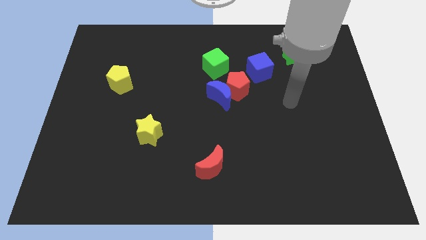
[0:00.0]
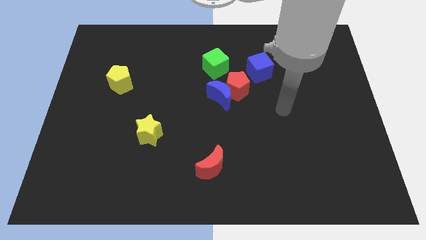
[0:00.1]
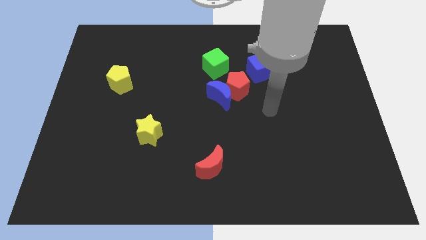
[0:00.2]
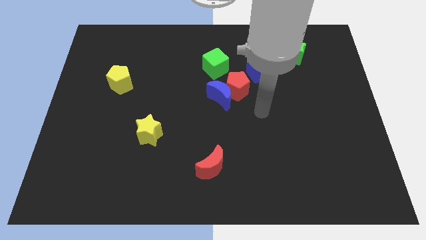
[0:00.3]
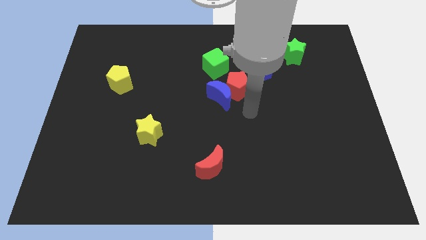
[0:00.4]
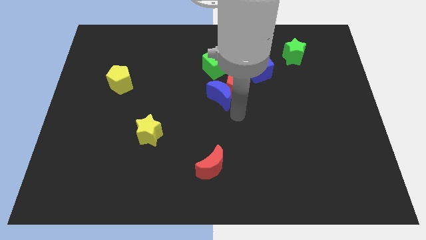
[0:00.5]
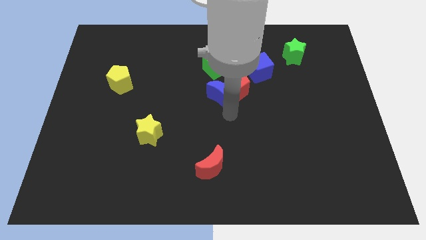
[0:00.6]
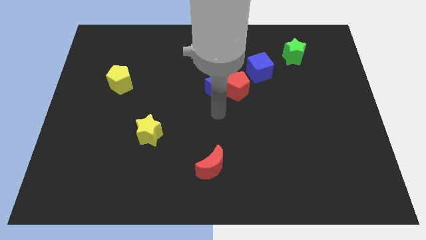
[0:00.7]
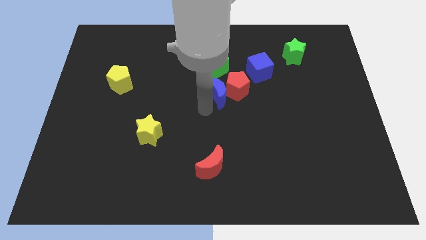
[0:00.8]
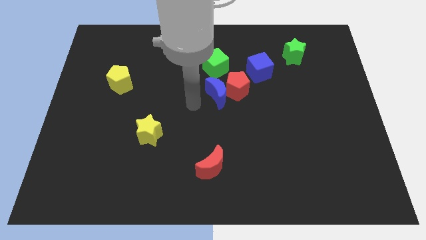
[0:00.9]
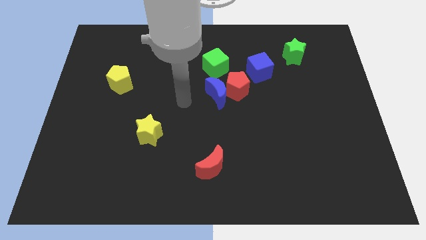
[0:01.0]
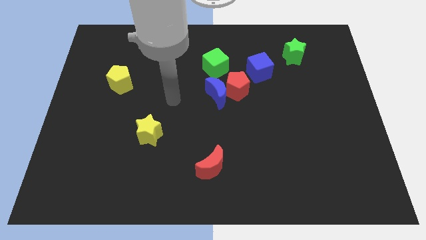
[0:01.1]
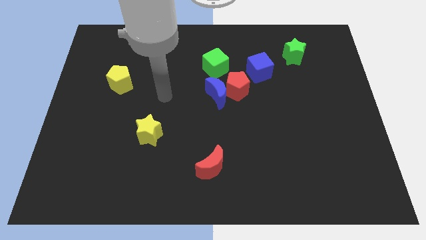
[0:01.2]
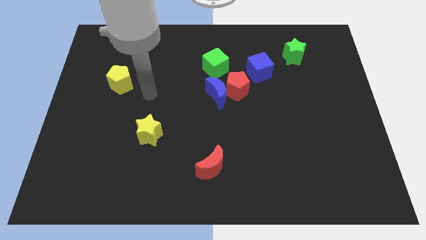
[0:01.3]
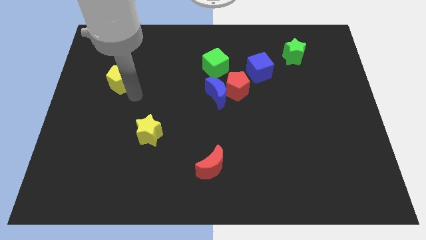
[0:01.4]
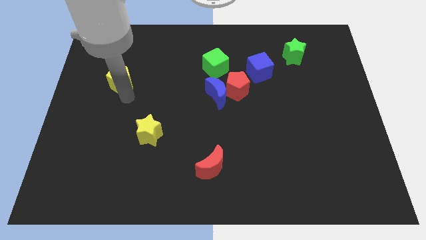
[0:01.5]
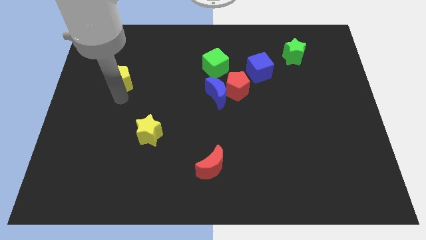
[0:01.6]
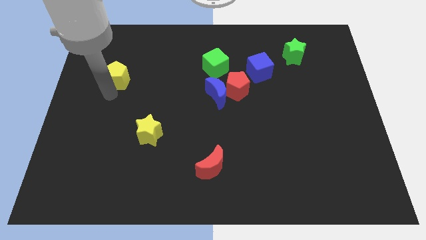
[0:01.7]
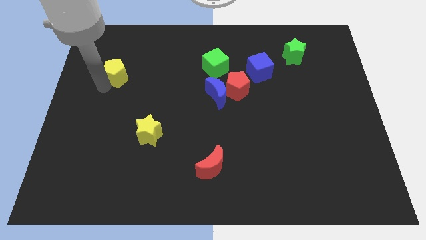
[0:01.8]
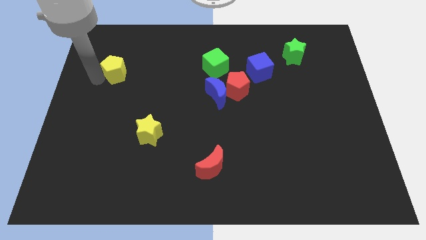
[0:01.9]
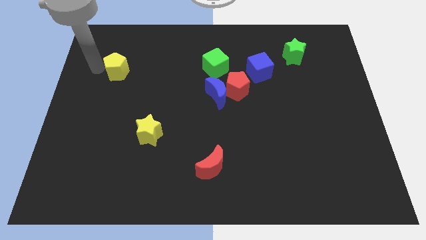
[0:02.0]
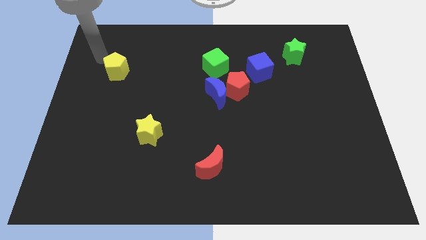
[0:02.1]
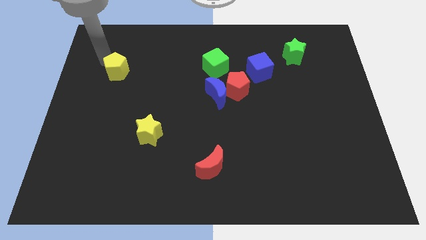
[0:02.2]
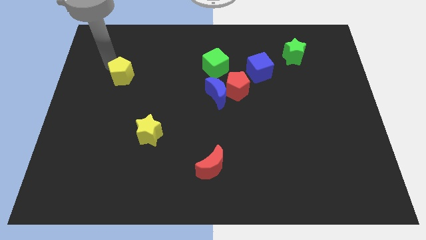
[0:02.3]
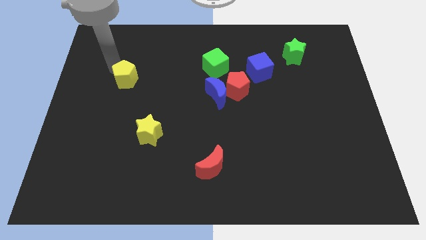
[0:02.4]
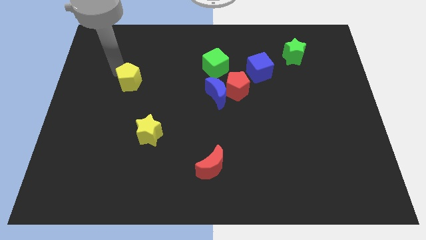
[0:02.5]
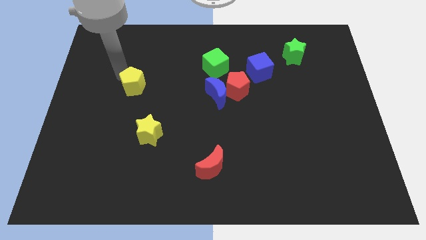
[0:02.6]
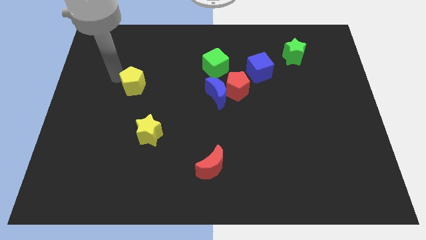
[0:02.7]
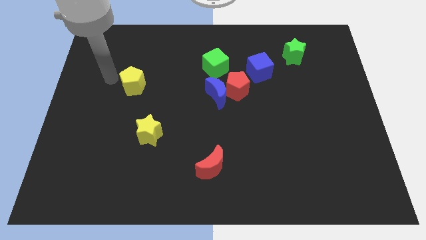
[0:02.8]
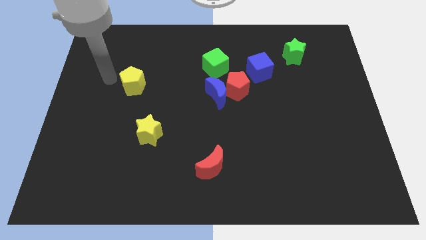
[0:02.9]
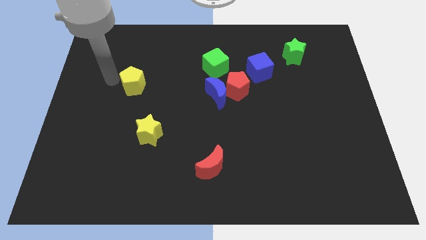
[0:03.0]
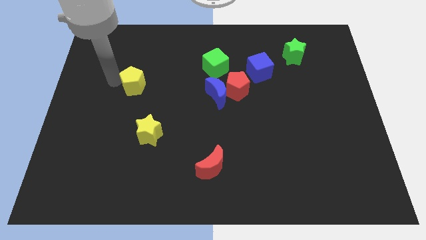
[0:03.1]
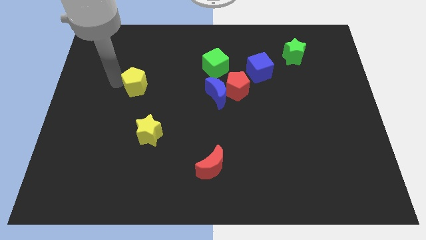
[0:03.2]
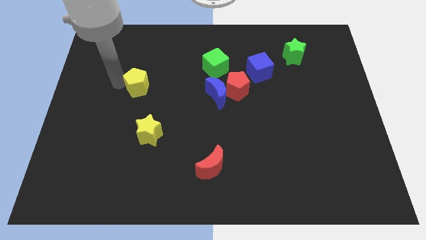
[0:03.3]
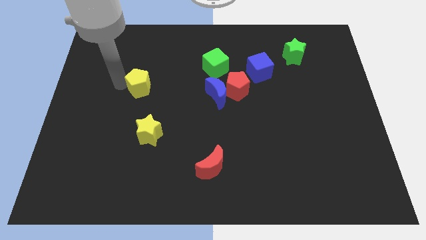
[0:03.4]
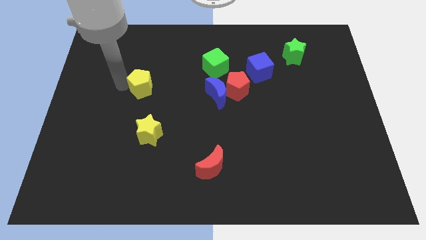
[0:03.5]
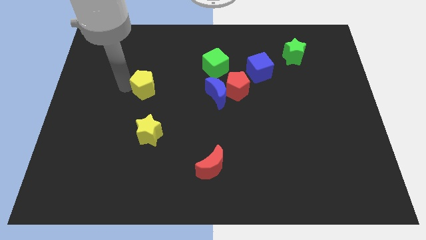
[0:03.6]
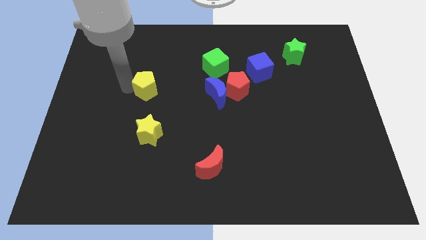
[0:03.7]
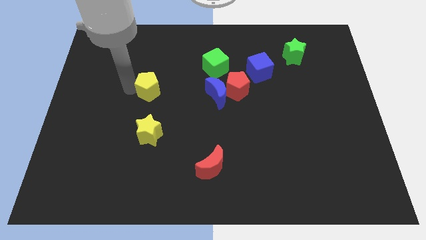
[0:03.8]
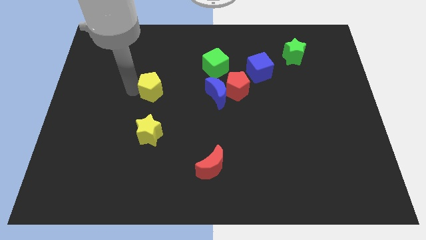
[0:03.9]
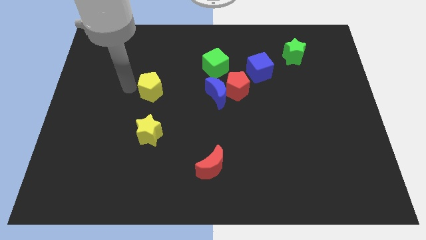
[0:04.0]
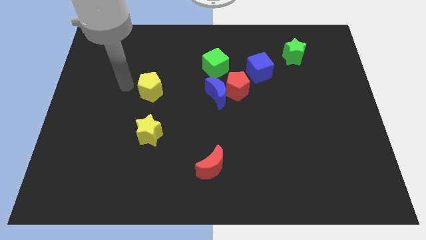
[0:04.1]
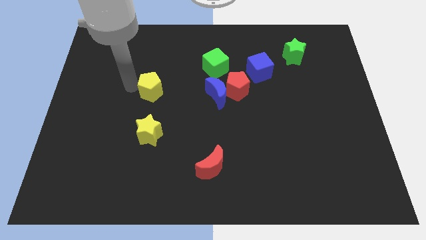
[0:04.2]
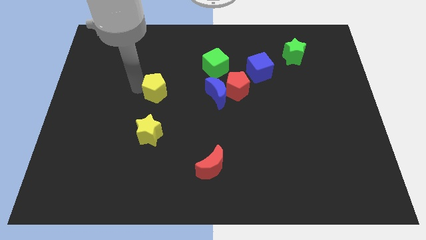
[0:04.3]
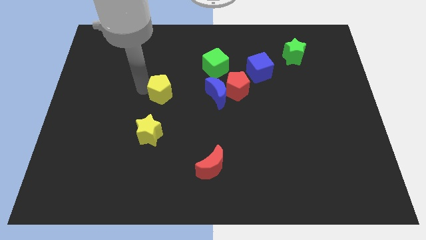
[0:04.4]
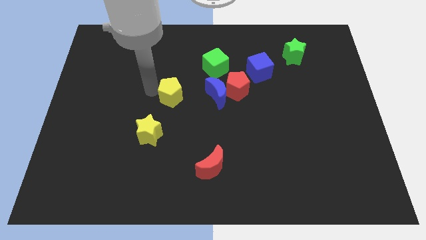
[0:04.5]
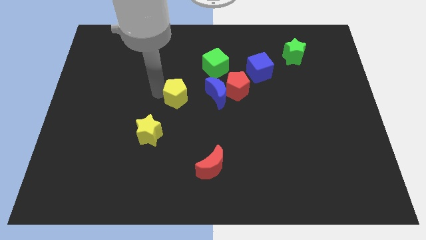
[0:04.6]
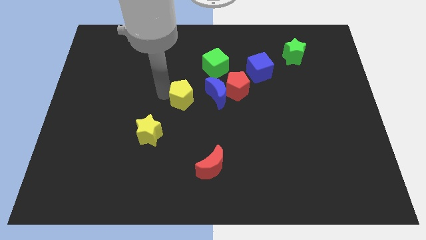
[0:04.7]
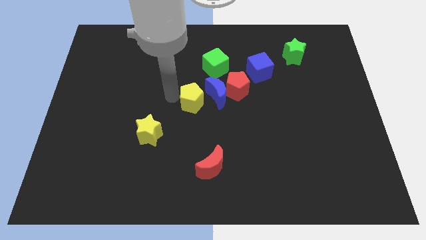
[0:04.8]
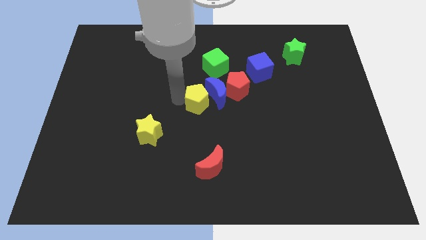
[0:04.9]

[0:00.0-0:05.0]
put the yellow pentagon close to the blue moon

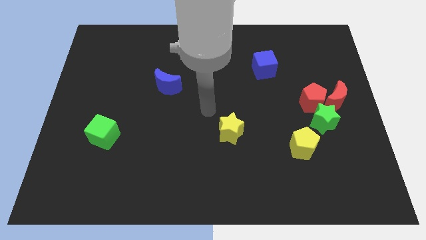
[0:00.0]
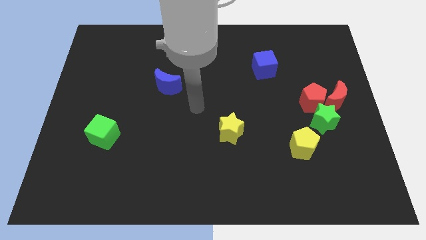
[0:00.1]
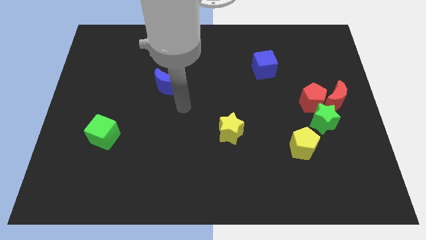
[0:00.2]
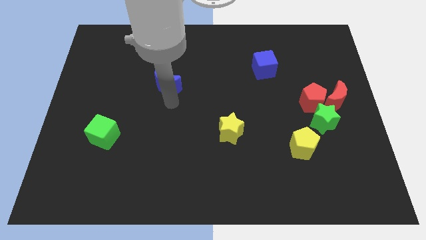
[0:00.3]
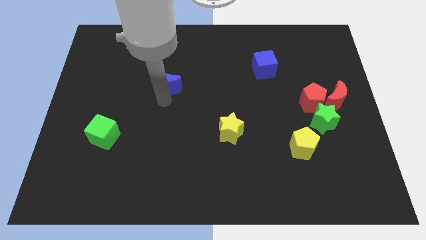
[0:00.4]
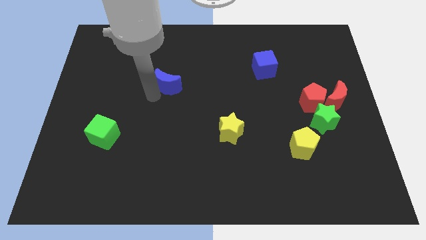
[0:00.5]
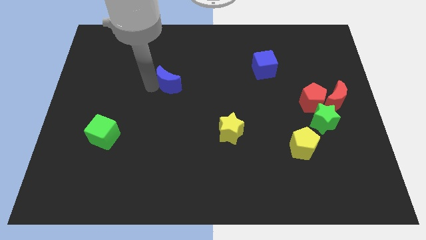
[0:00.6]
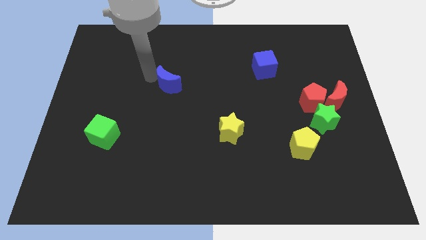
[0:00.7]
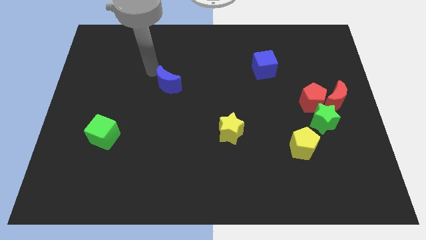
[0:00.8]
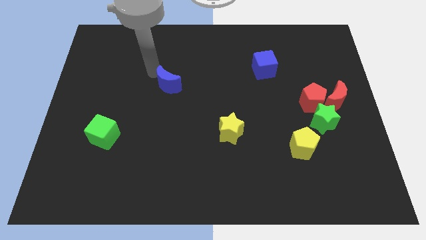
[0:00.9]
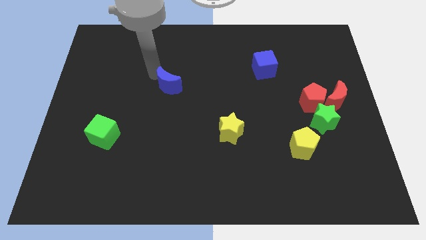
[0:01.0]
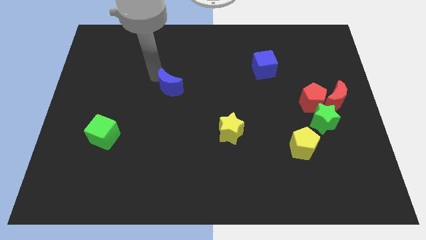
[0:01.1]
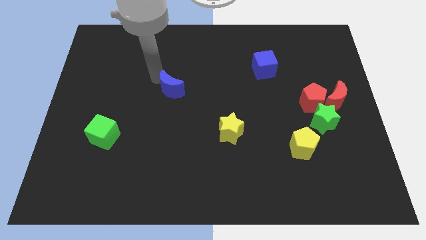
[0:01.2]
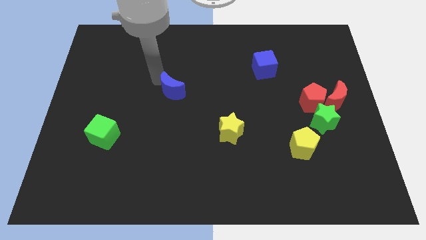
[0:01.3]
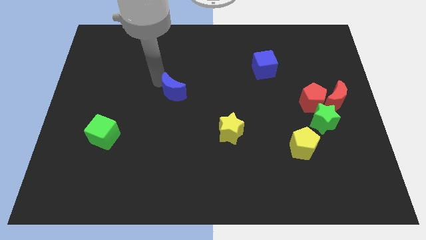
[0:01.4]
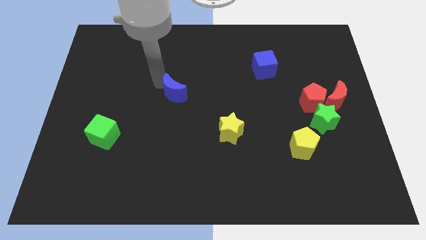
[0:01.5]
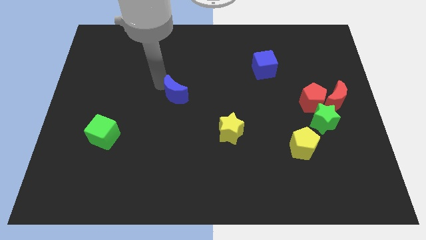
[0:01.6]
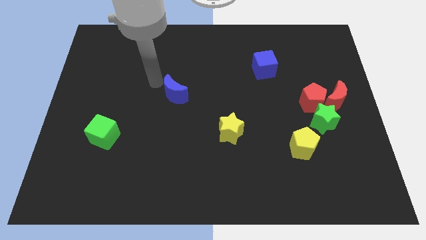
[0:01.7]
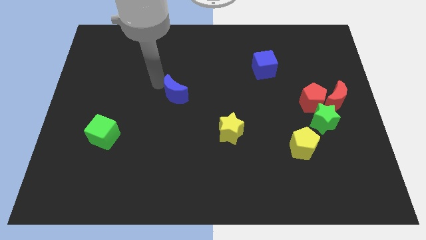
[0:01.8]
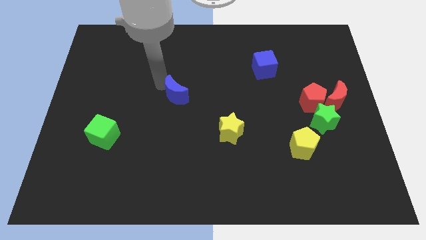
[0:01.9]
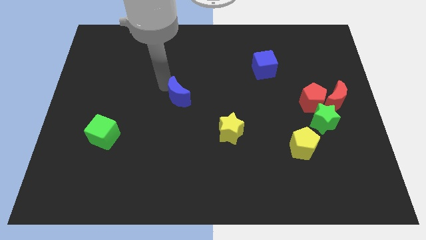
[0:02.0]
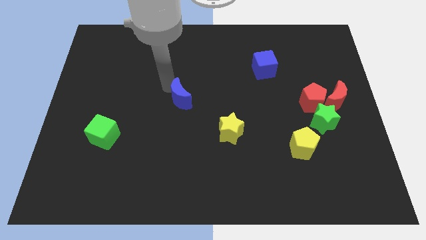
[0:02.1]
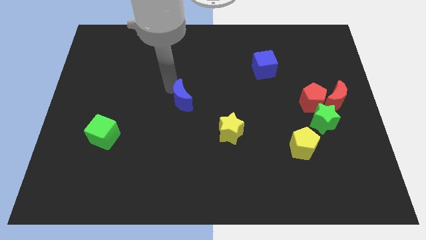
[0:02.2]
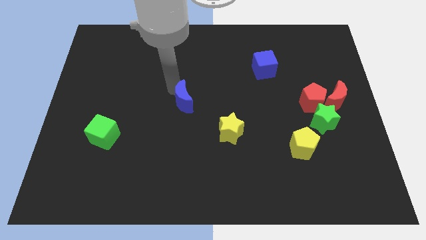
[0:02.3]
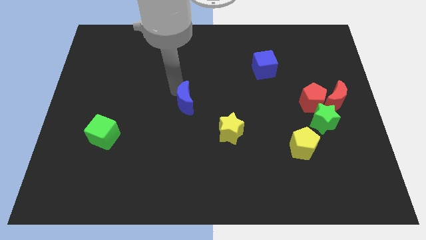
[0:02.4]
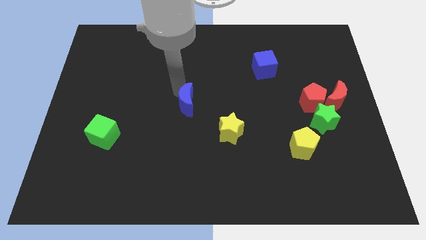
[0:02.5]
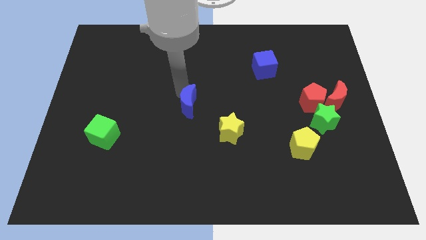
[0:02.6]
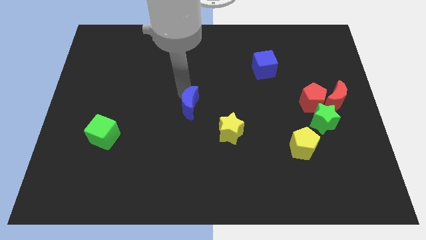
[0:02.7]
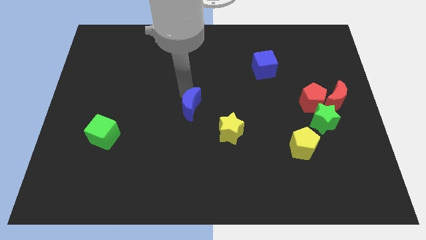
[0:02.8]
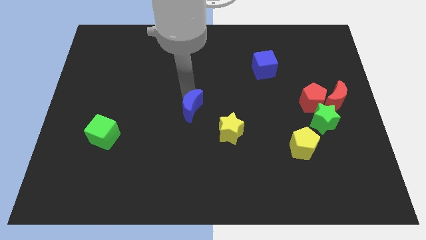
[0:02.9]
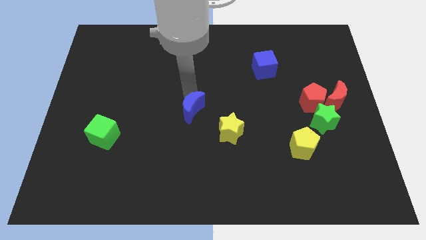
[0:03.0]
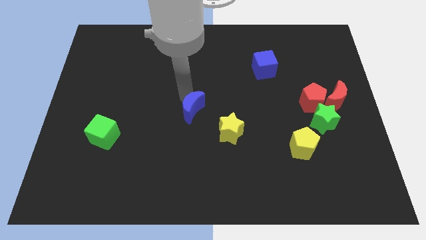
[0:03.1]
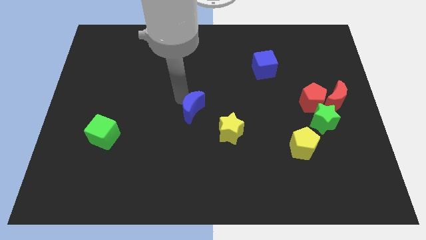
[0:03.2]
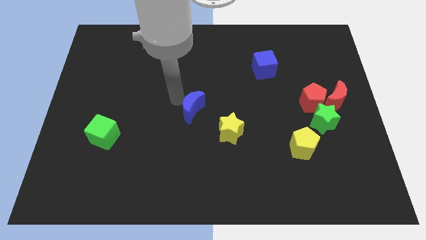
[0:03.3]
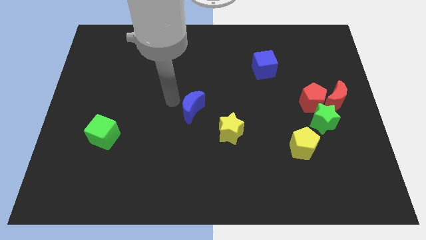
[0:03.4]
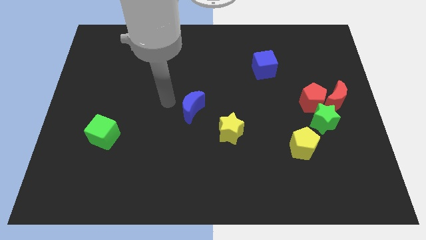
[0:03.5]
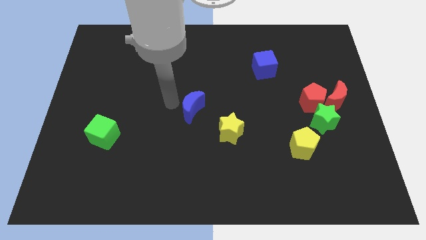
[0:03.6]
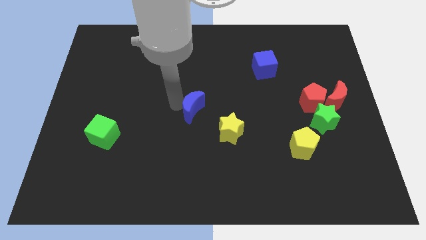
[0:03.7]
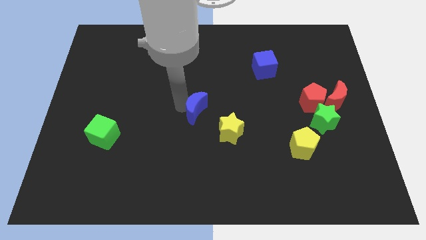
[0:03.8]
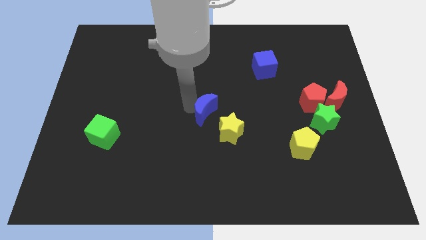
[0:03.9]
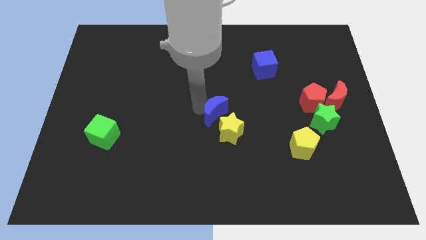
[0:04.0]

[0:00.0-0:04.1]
push the blue moon close to the yellow star
